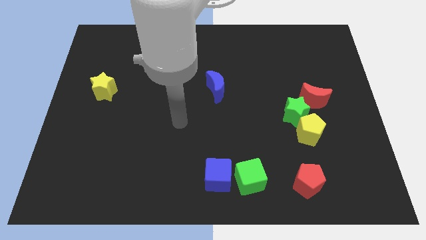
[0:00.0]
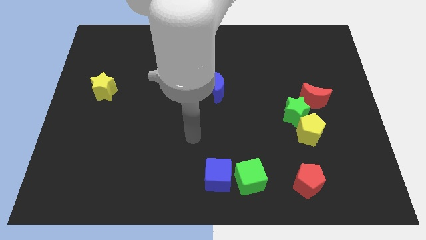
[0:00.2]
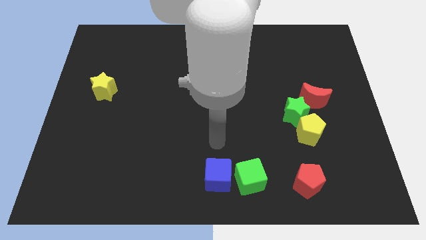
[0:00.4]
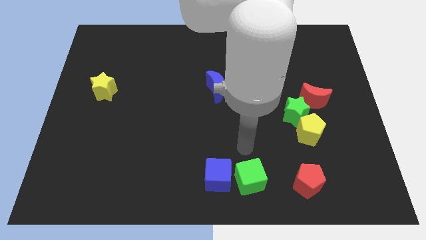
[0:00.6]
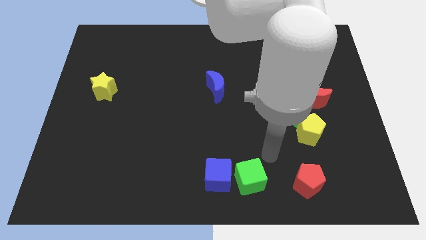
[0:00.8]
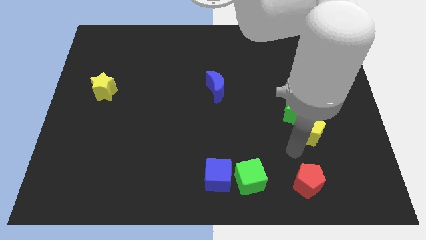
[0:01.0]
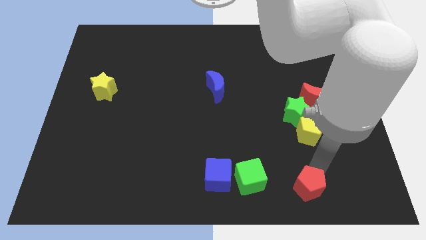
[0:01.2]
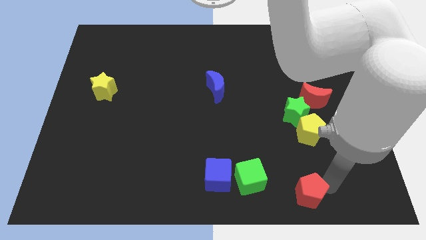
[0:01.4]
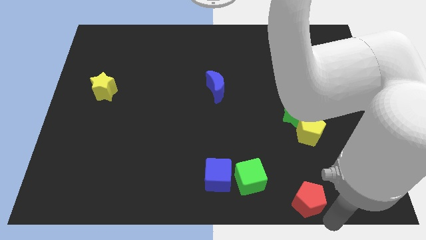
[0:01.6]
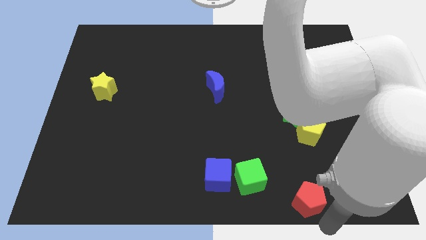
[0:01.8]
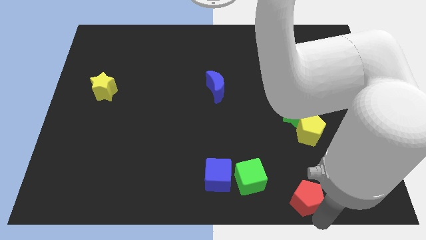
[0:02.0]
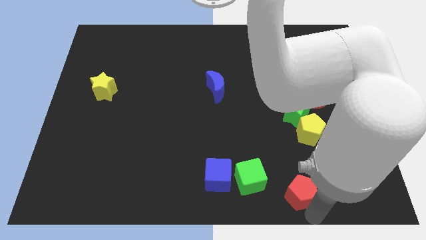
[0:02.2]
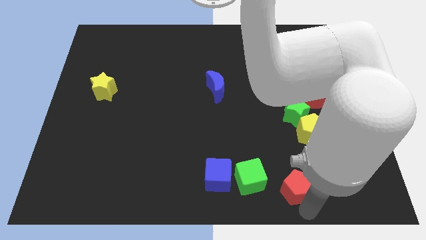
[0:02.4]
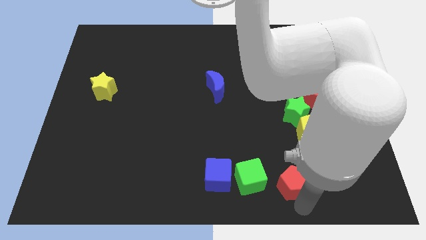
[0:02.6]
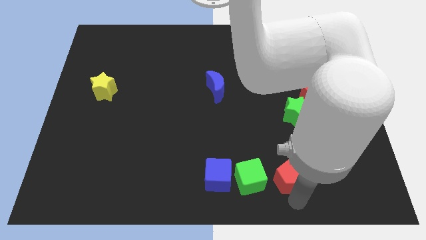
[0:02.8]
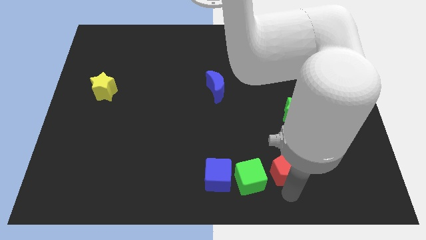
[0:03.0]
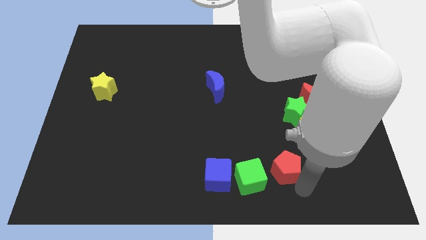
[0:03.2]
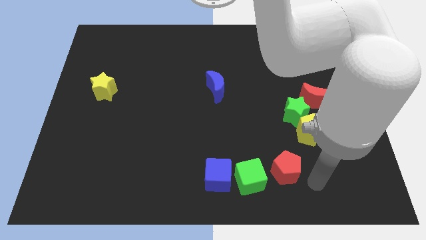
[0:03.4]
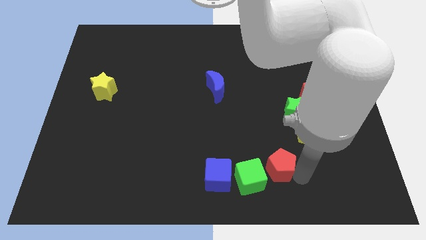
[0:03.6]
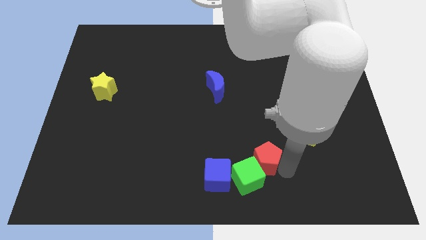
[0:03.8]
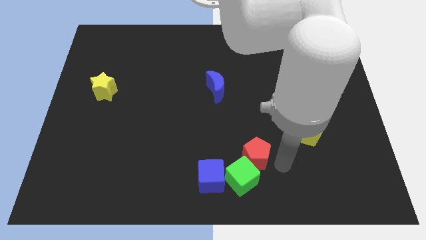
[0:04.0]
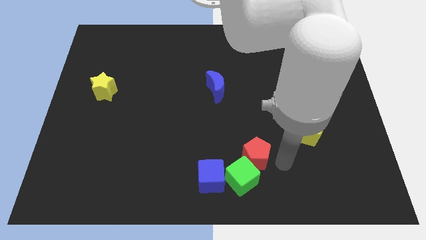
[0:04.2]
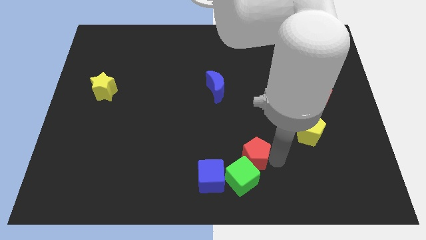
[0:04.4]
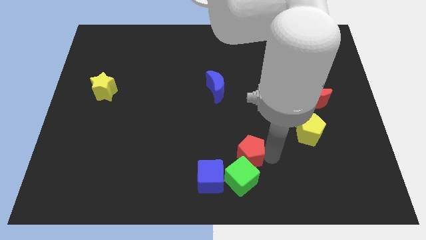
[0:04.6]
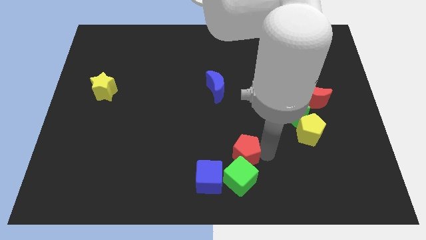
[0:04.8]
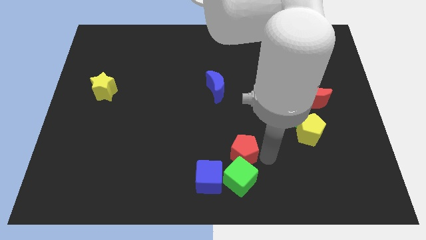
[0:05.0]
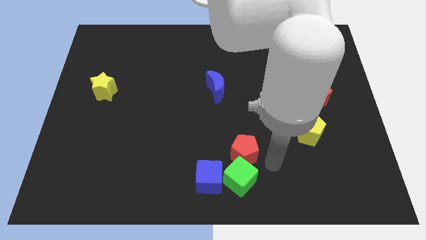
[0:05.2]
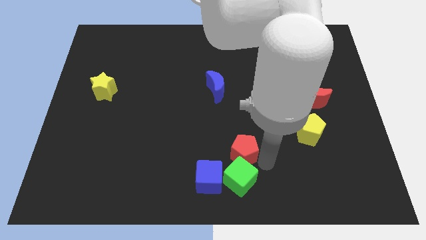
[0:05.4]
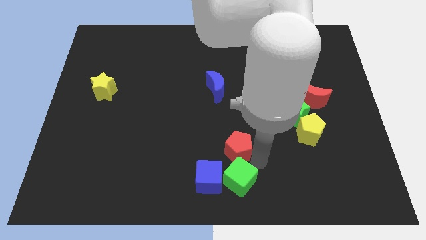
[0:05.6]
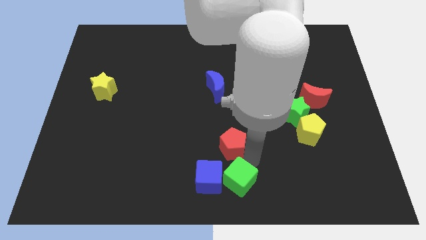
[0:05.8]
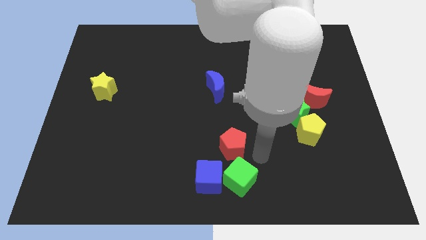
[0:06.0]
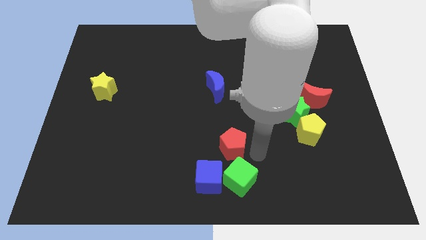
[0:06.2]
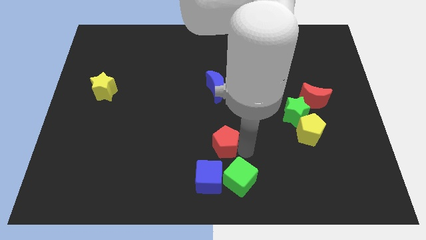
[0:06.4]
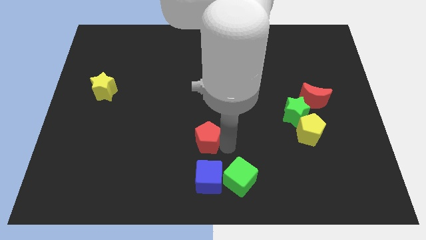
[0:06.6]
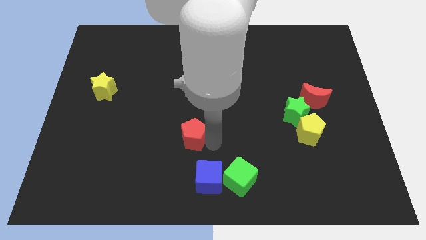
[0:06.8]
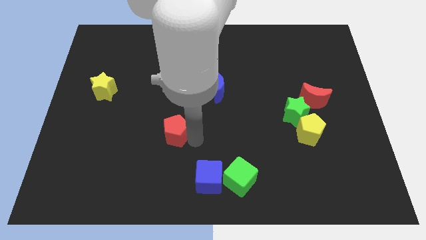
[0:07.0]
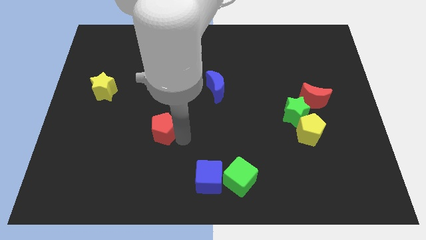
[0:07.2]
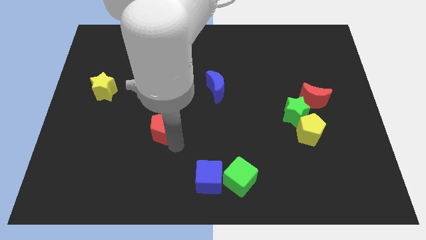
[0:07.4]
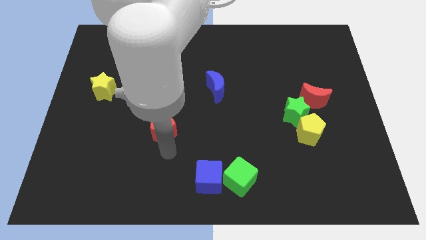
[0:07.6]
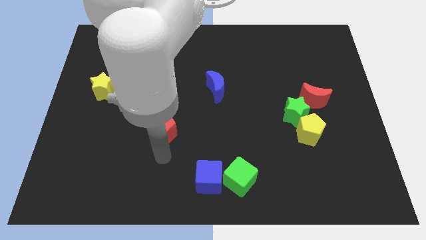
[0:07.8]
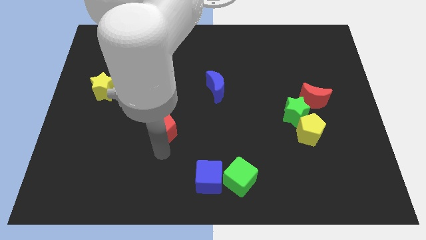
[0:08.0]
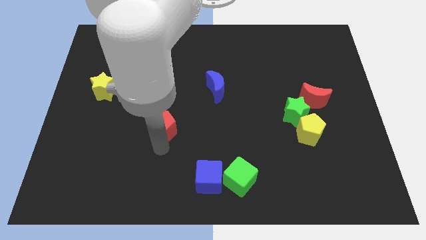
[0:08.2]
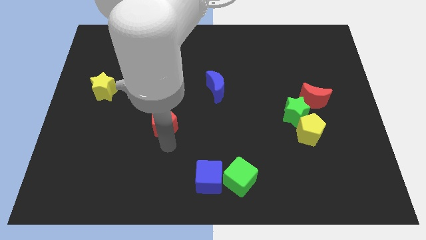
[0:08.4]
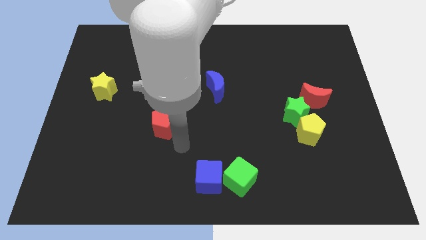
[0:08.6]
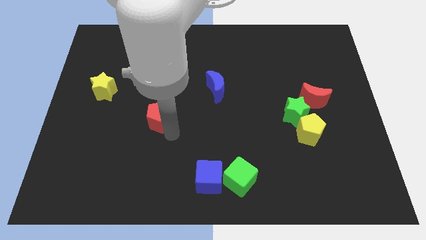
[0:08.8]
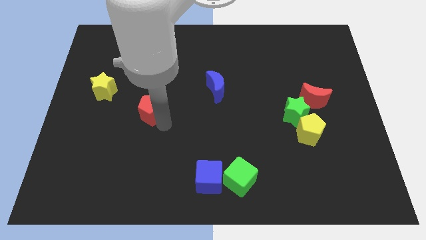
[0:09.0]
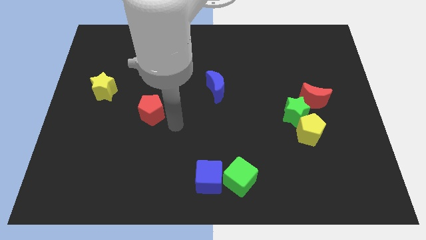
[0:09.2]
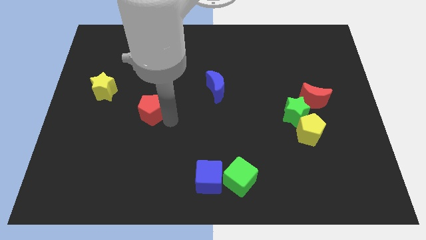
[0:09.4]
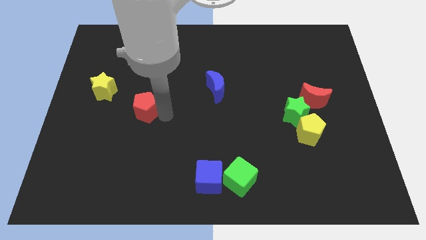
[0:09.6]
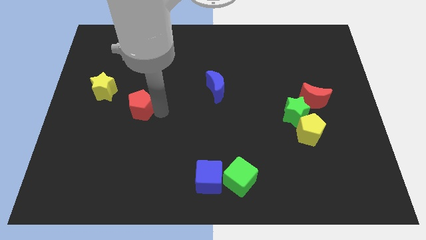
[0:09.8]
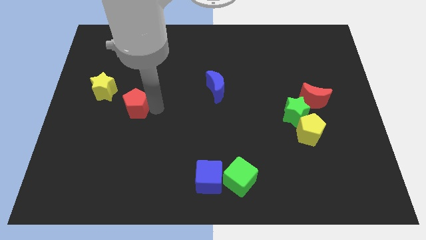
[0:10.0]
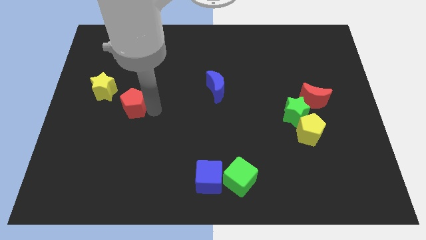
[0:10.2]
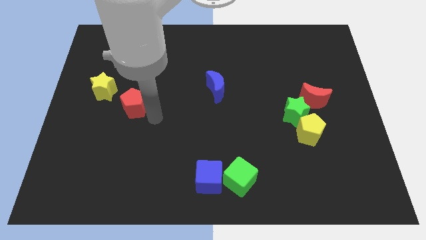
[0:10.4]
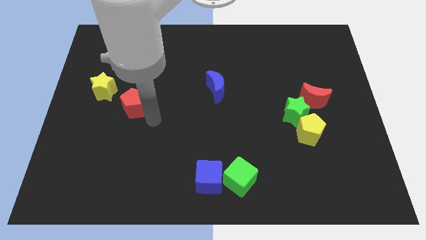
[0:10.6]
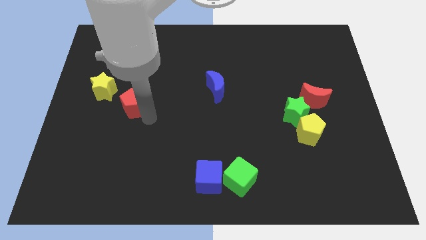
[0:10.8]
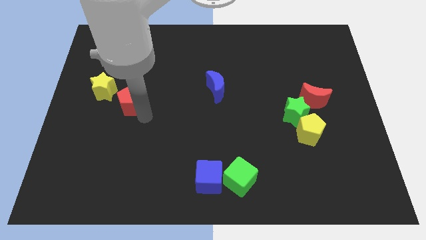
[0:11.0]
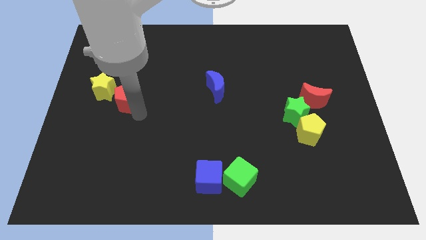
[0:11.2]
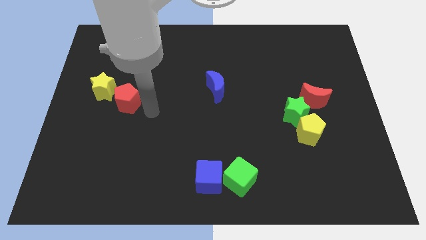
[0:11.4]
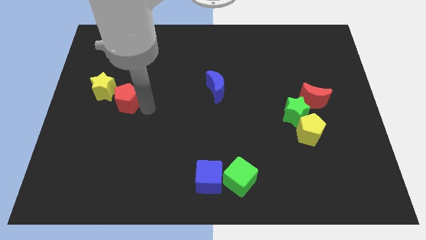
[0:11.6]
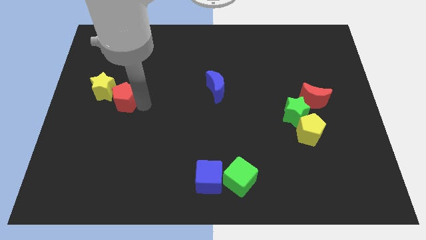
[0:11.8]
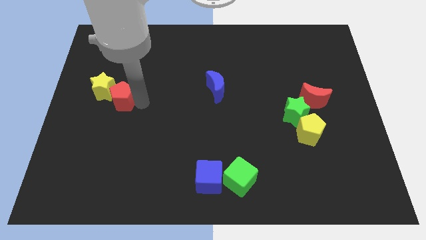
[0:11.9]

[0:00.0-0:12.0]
slide the red pentagon to the yellow star

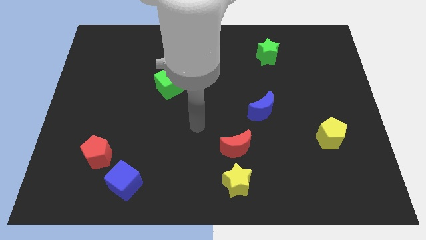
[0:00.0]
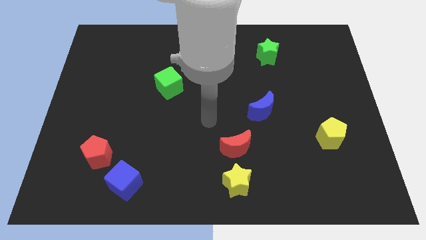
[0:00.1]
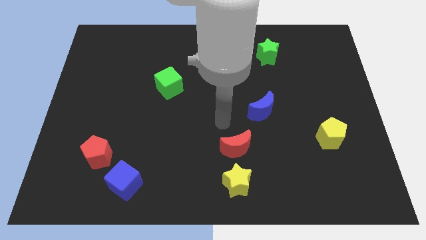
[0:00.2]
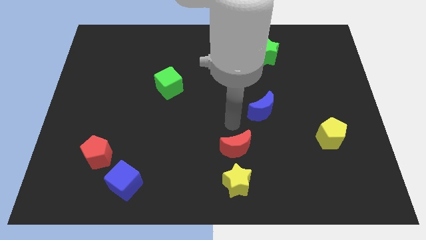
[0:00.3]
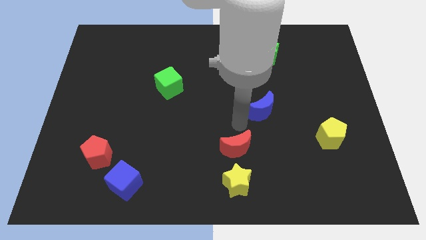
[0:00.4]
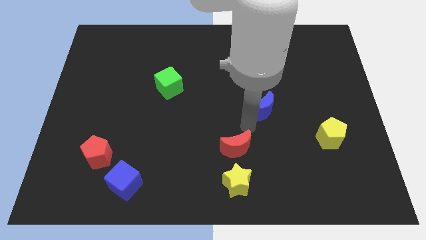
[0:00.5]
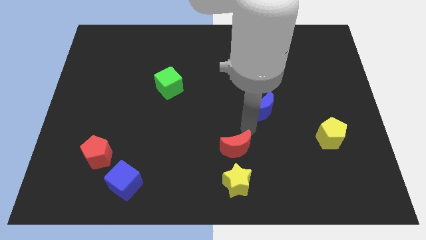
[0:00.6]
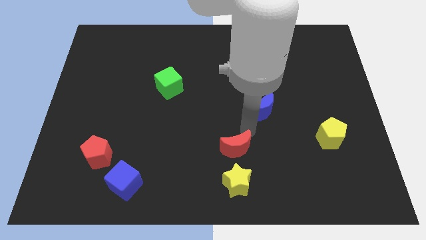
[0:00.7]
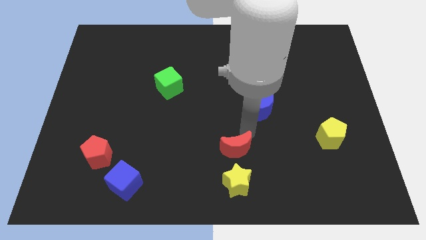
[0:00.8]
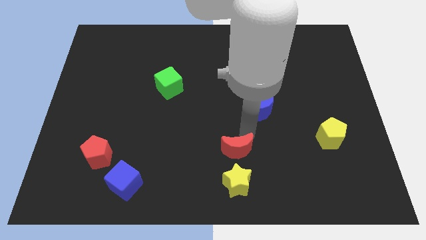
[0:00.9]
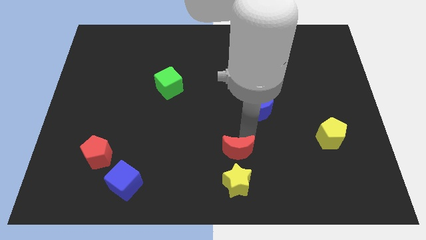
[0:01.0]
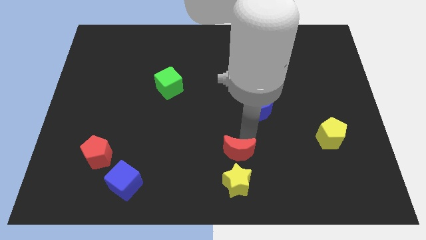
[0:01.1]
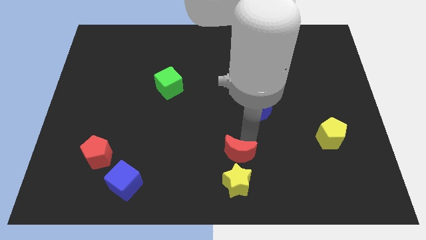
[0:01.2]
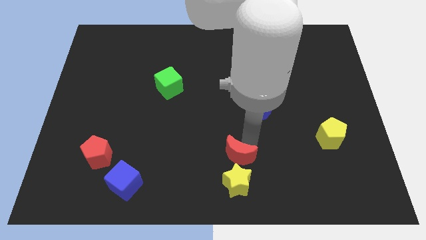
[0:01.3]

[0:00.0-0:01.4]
put the red moon towards the yellow star
